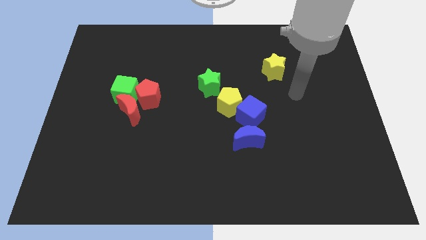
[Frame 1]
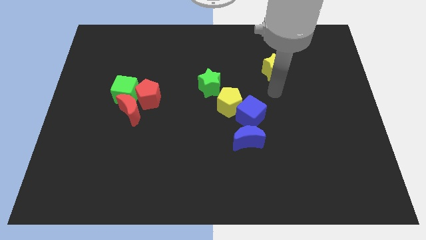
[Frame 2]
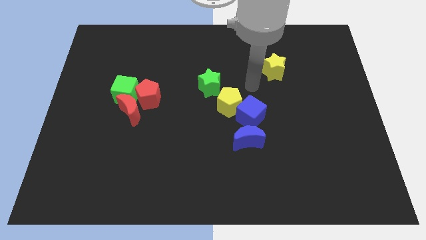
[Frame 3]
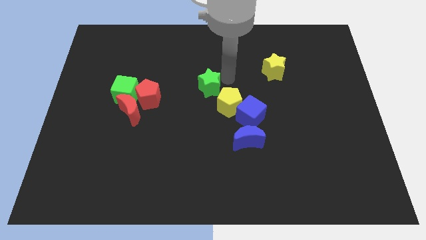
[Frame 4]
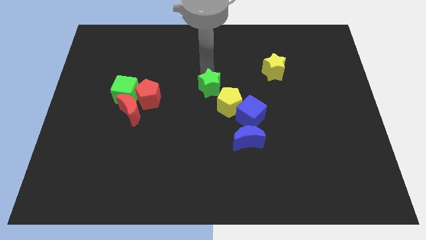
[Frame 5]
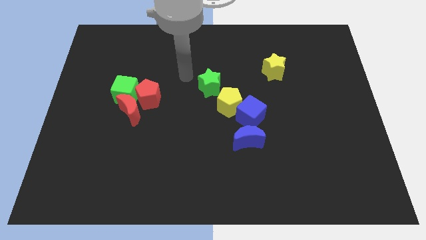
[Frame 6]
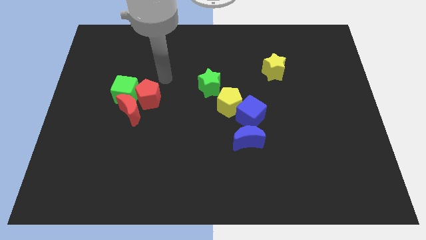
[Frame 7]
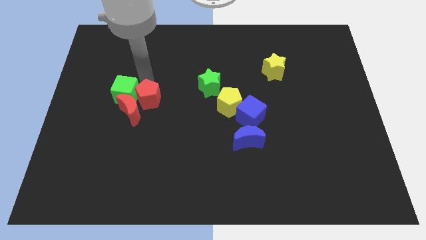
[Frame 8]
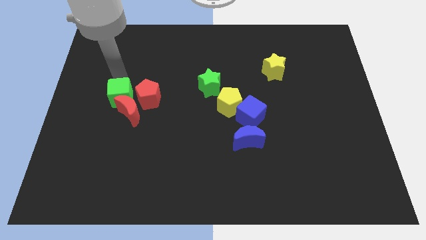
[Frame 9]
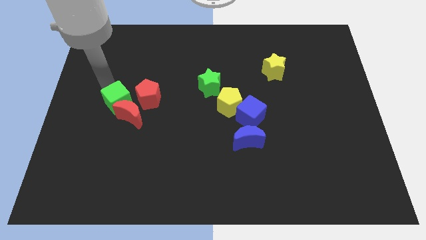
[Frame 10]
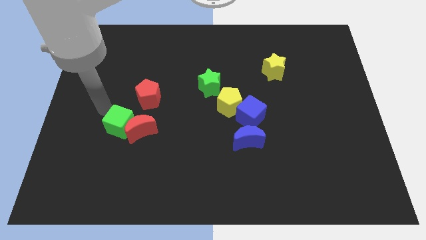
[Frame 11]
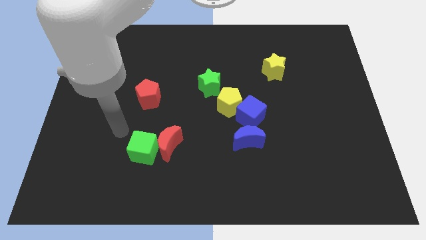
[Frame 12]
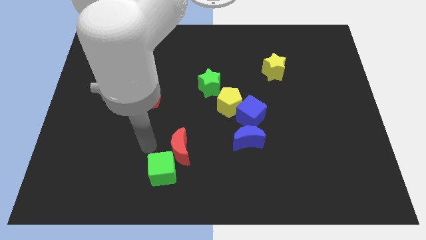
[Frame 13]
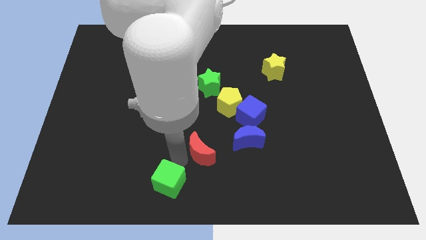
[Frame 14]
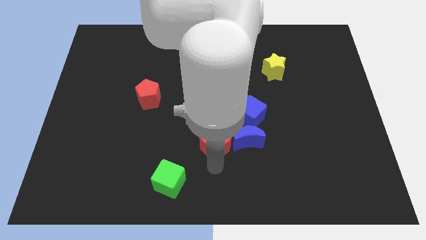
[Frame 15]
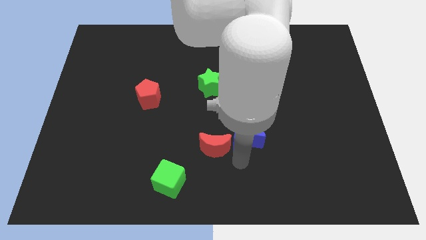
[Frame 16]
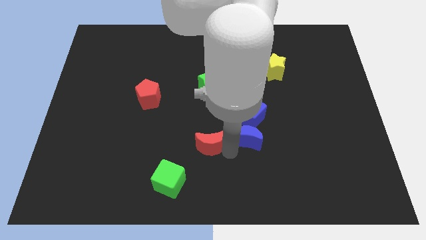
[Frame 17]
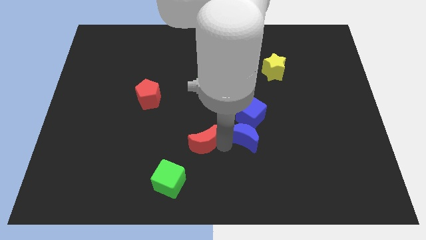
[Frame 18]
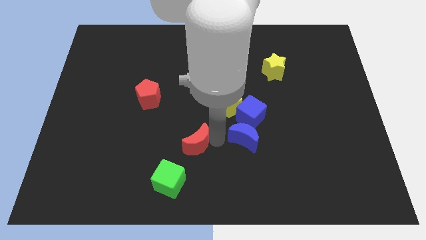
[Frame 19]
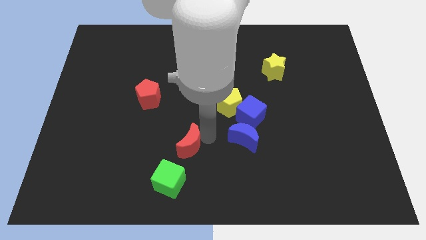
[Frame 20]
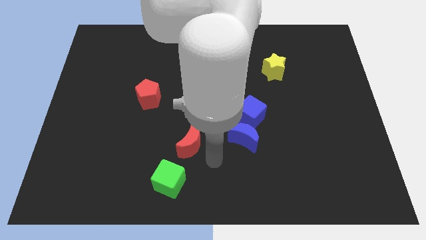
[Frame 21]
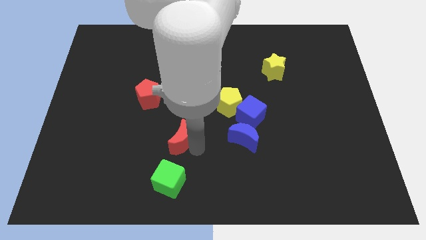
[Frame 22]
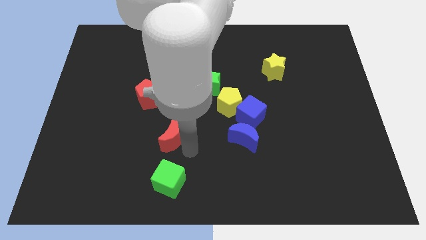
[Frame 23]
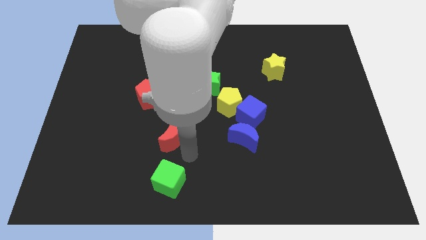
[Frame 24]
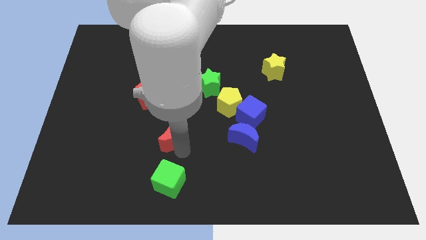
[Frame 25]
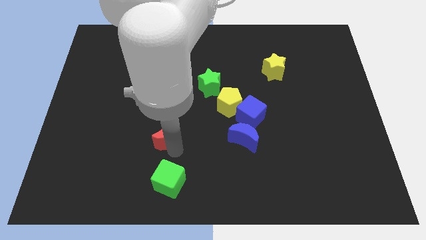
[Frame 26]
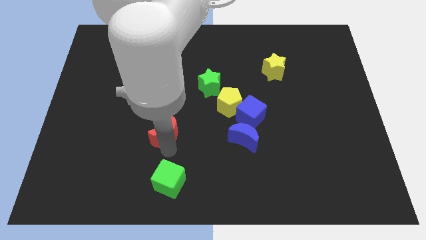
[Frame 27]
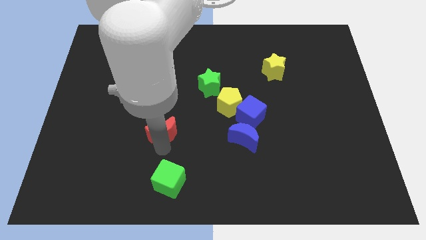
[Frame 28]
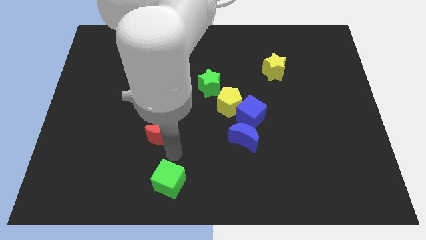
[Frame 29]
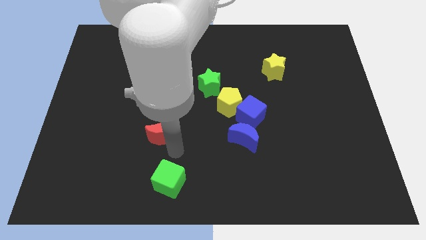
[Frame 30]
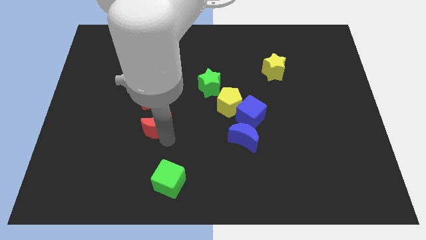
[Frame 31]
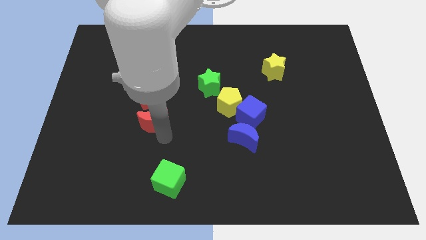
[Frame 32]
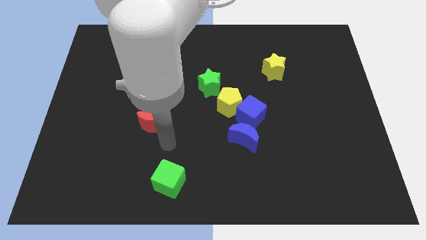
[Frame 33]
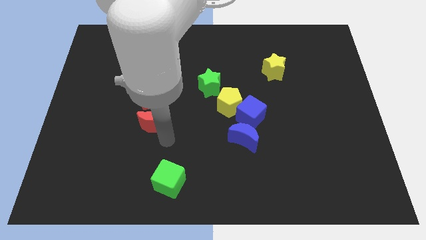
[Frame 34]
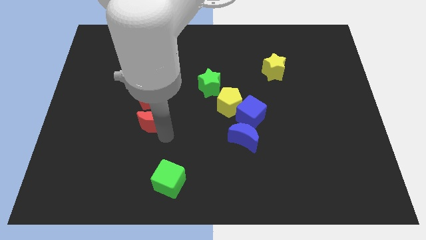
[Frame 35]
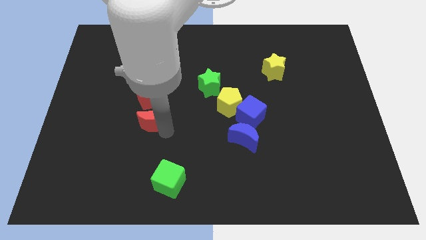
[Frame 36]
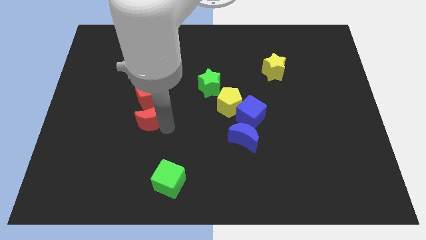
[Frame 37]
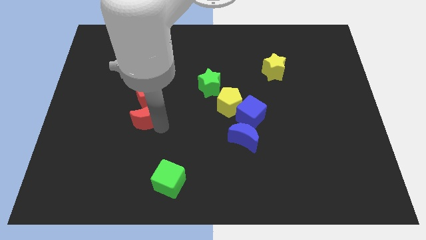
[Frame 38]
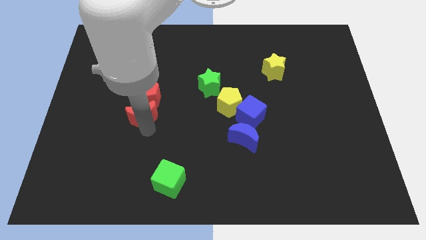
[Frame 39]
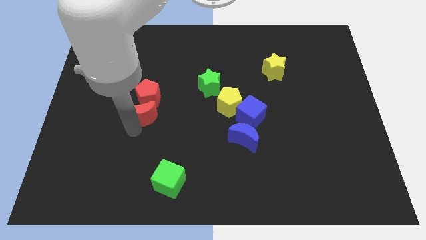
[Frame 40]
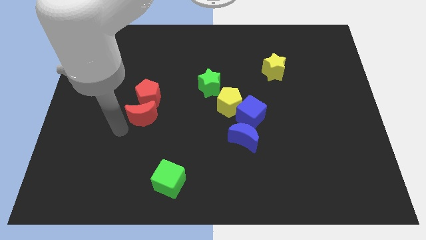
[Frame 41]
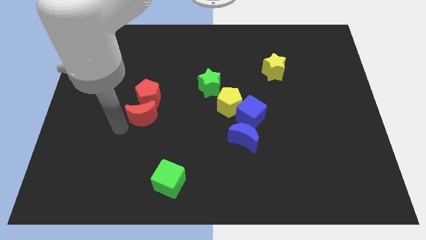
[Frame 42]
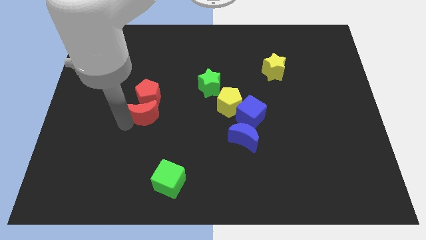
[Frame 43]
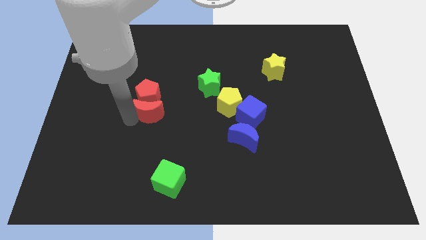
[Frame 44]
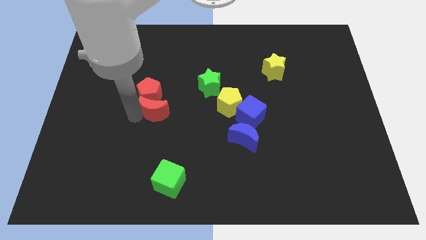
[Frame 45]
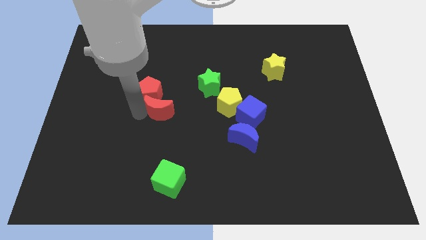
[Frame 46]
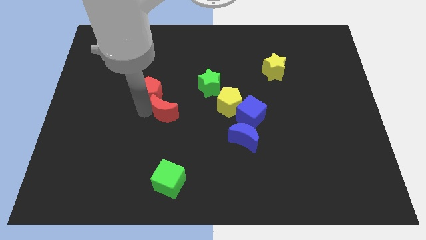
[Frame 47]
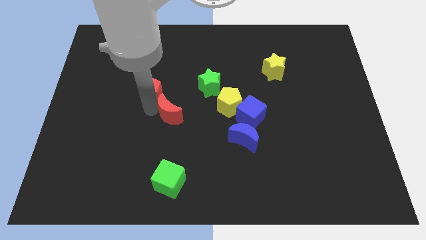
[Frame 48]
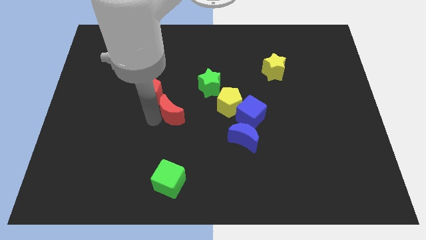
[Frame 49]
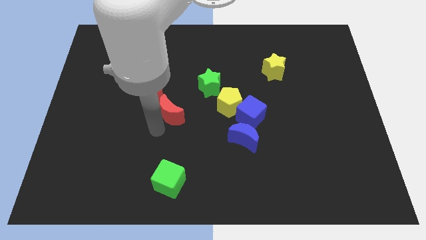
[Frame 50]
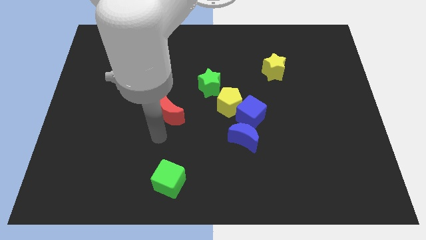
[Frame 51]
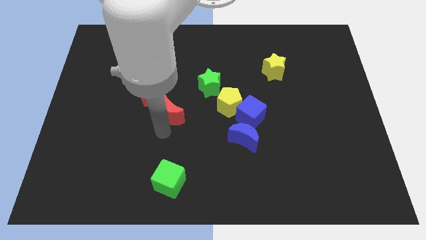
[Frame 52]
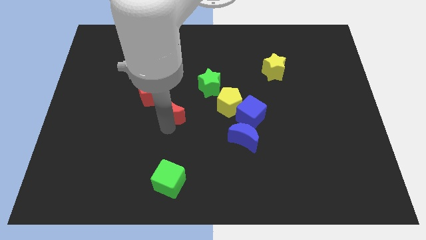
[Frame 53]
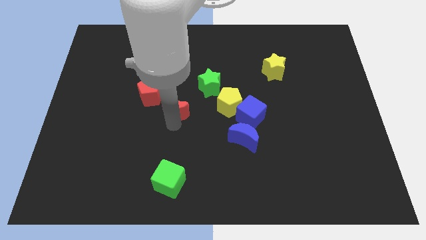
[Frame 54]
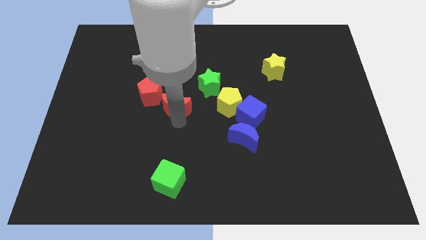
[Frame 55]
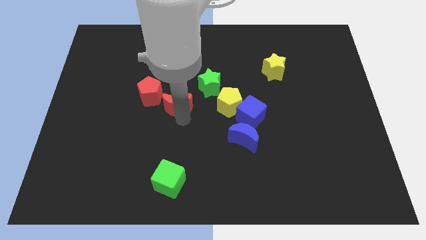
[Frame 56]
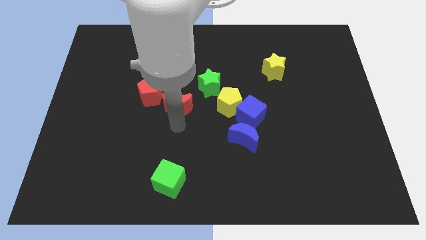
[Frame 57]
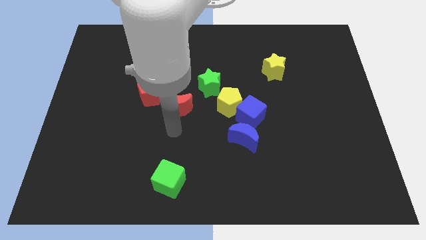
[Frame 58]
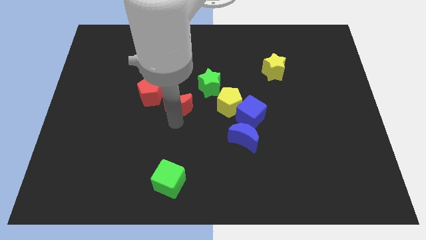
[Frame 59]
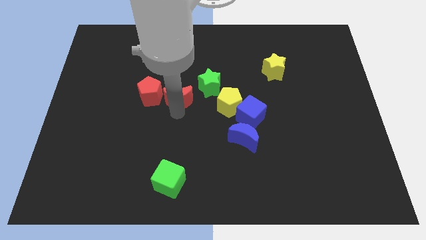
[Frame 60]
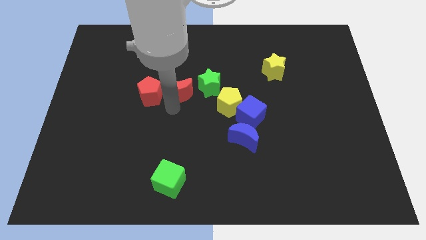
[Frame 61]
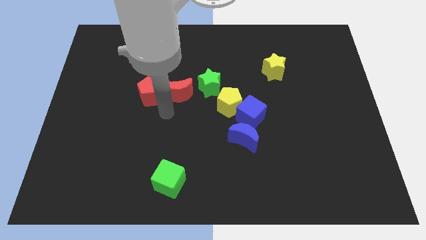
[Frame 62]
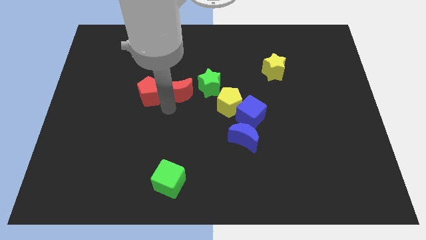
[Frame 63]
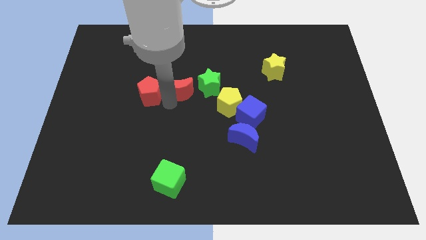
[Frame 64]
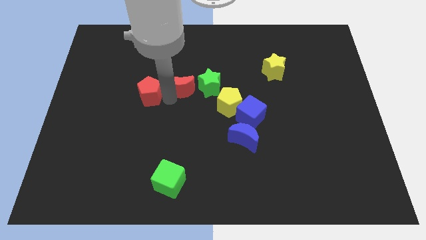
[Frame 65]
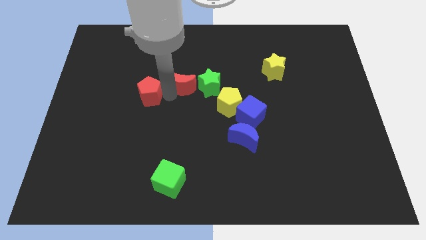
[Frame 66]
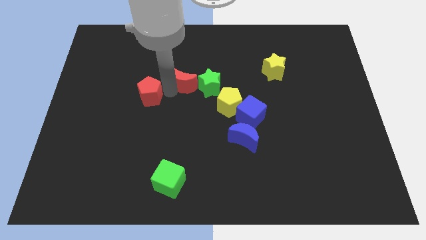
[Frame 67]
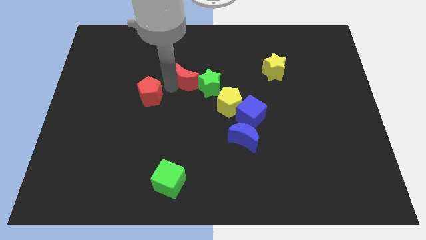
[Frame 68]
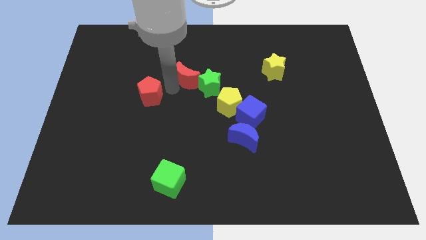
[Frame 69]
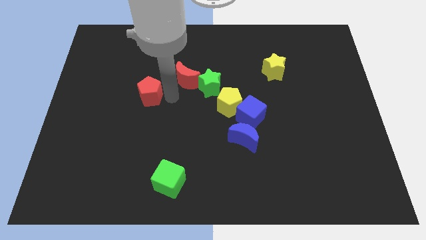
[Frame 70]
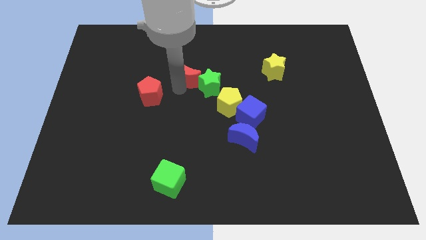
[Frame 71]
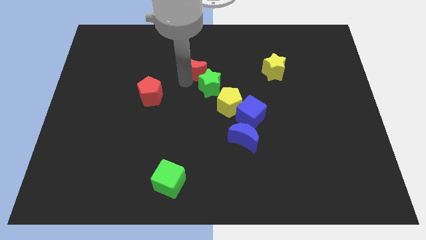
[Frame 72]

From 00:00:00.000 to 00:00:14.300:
put the red moon above the green star

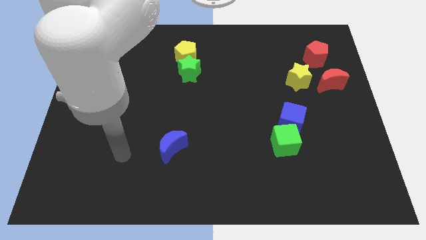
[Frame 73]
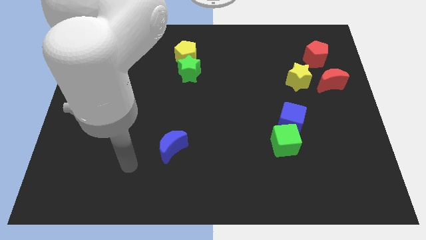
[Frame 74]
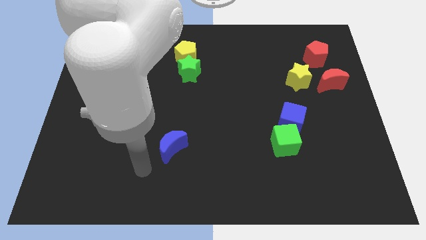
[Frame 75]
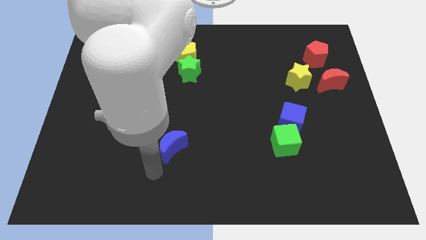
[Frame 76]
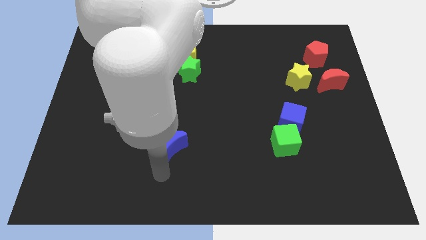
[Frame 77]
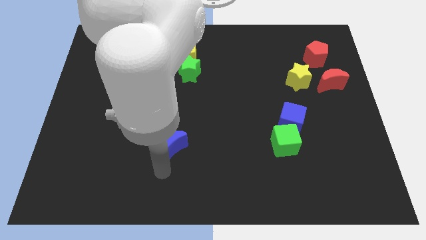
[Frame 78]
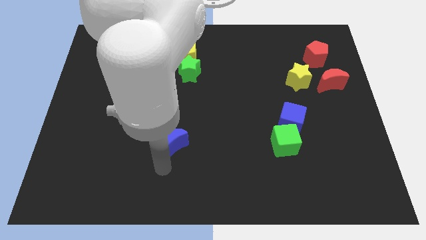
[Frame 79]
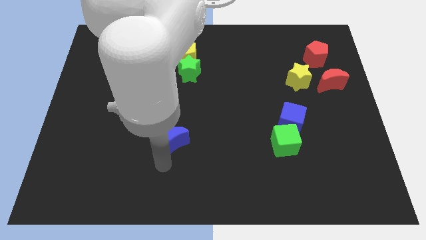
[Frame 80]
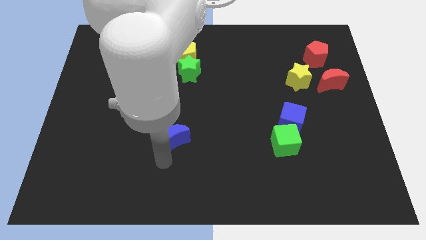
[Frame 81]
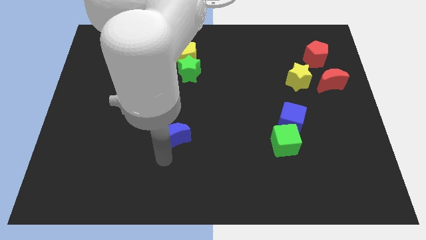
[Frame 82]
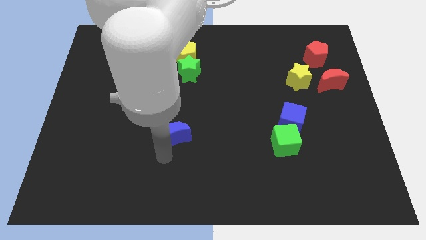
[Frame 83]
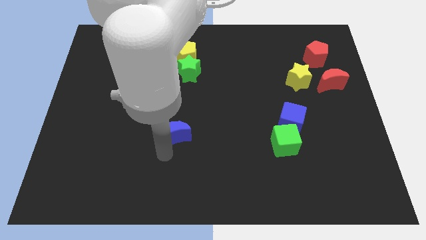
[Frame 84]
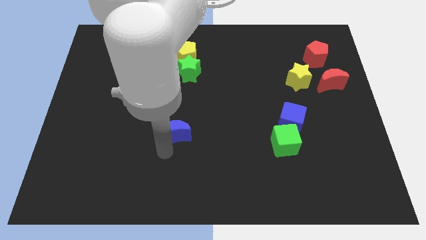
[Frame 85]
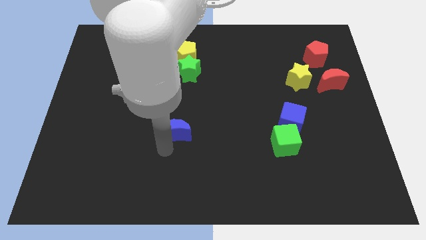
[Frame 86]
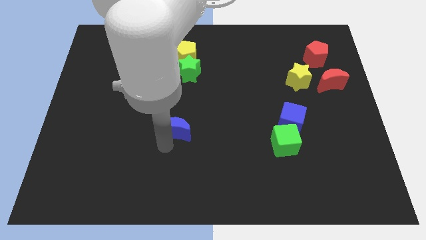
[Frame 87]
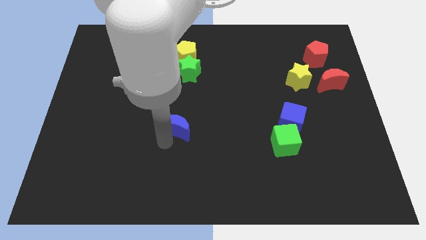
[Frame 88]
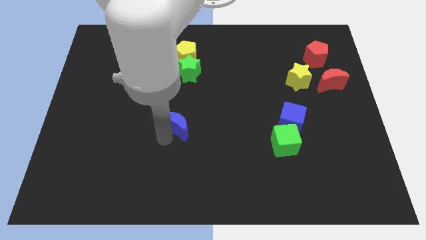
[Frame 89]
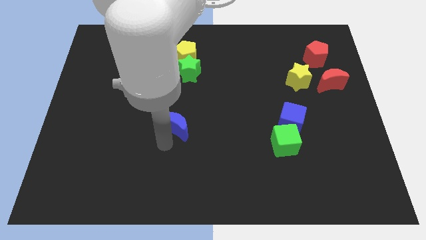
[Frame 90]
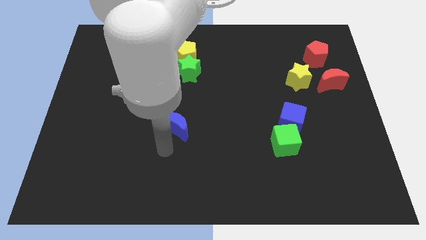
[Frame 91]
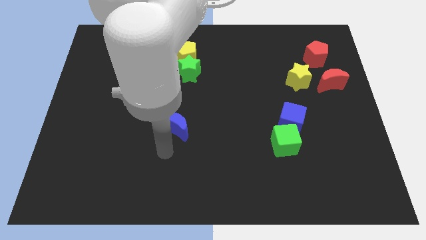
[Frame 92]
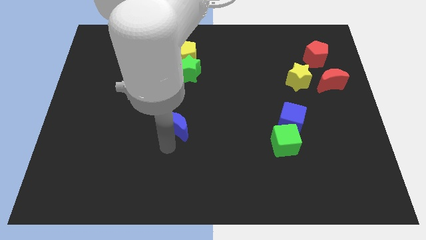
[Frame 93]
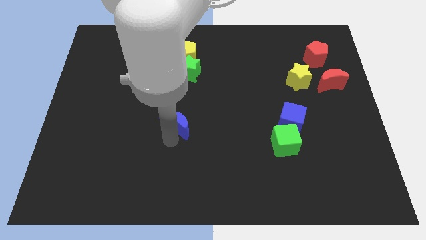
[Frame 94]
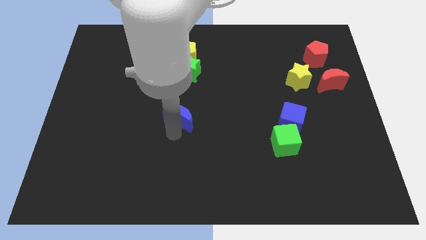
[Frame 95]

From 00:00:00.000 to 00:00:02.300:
move the blue moon to the bottom of the green star
